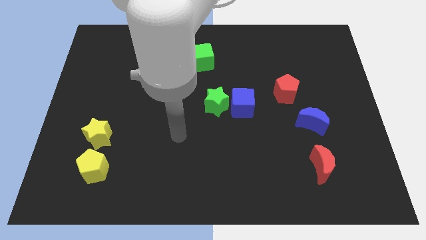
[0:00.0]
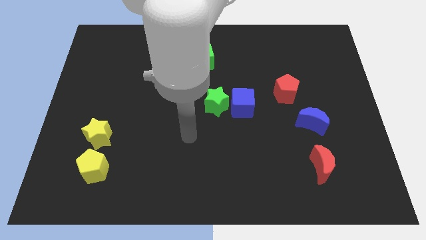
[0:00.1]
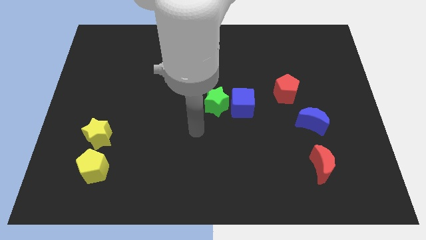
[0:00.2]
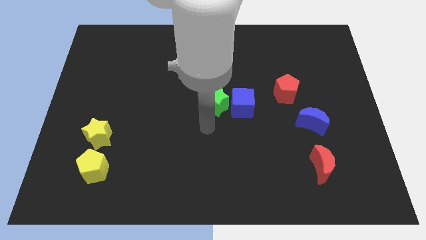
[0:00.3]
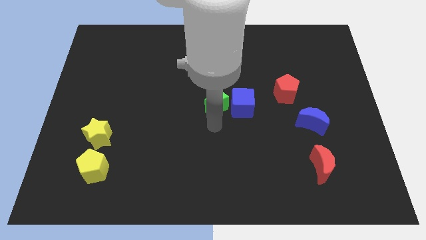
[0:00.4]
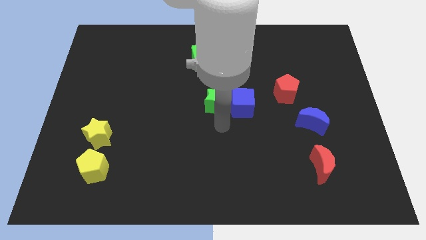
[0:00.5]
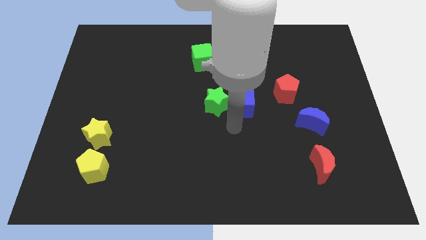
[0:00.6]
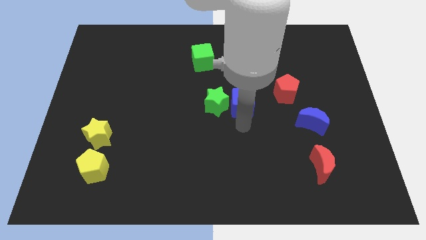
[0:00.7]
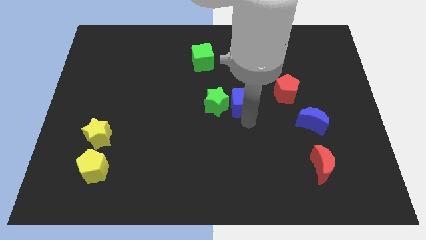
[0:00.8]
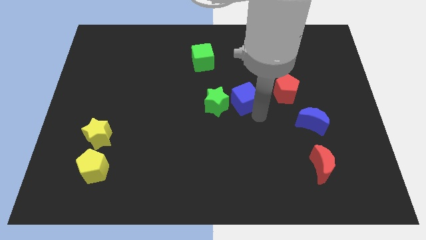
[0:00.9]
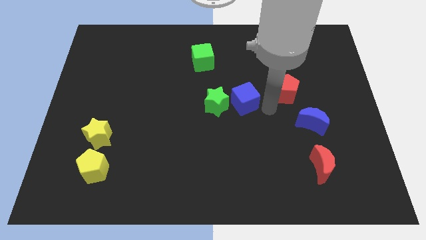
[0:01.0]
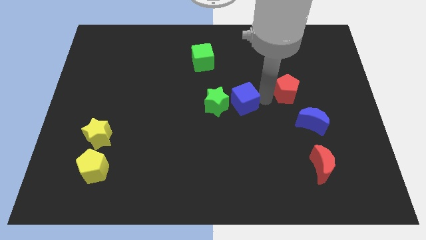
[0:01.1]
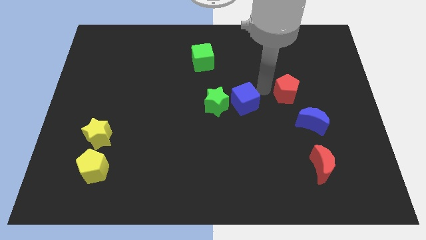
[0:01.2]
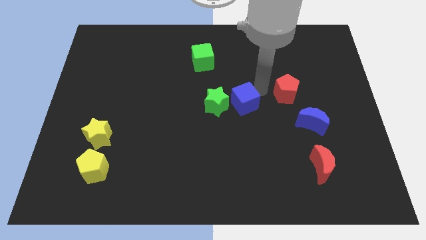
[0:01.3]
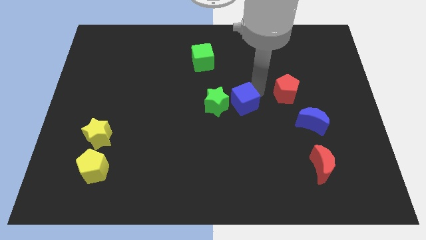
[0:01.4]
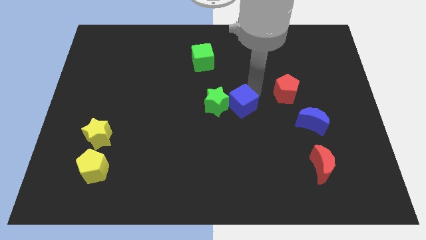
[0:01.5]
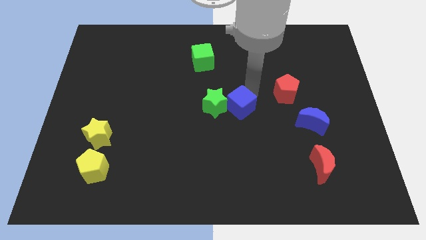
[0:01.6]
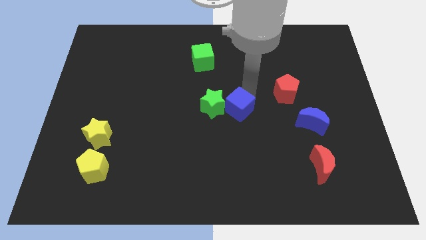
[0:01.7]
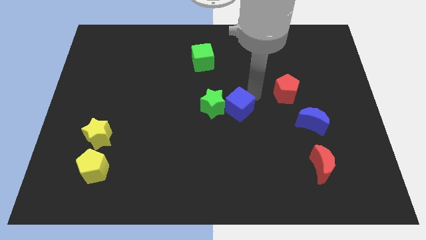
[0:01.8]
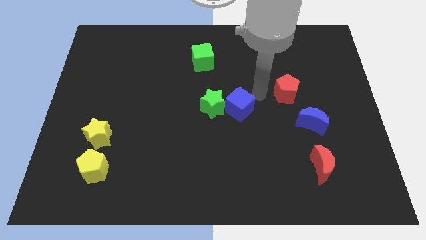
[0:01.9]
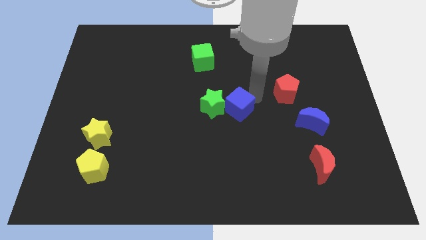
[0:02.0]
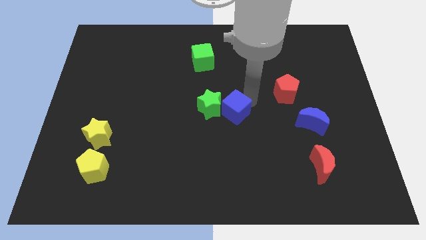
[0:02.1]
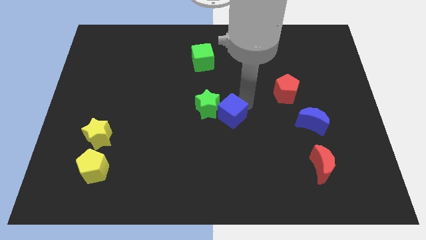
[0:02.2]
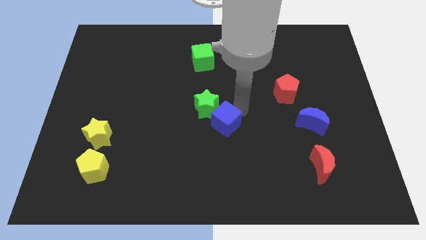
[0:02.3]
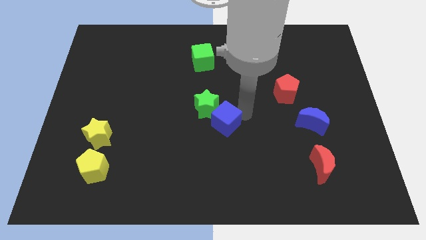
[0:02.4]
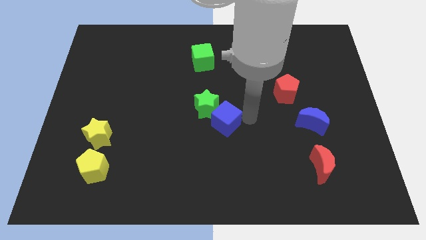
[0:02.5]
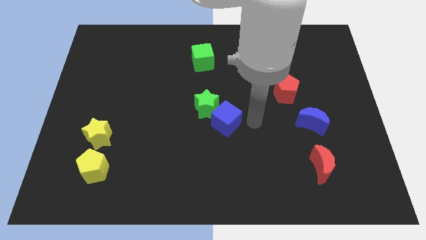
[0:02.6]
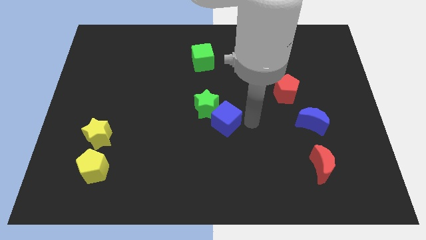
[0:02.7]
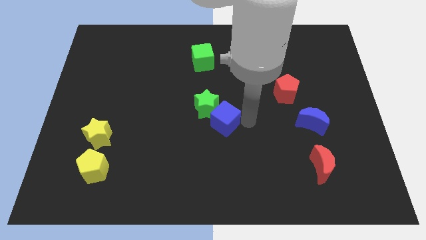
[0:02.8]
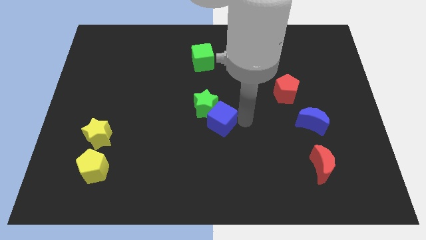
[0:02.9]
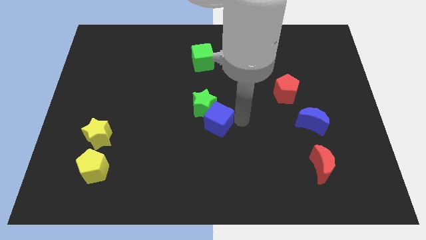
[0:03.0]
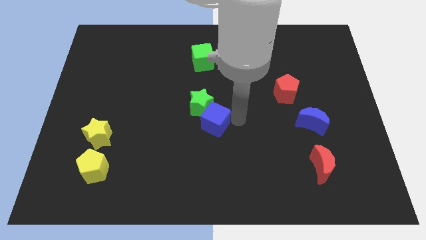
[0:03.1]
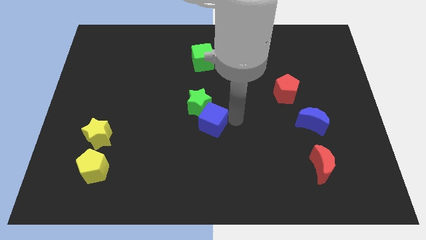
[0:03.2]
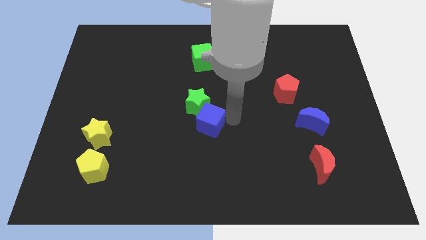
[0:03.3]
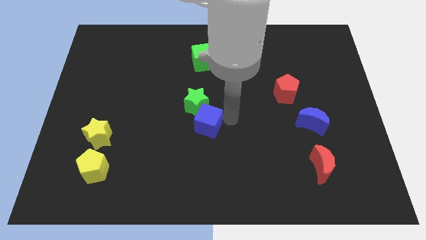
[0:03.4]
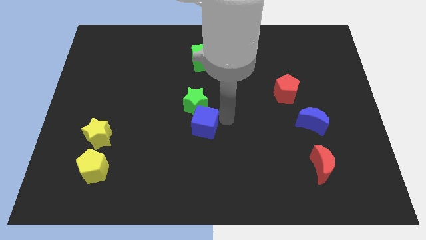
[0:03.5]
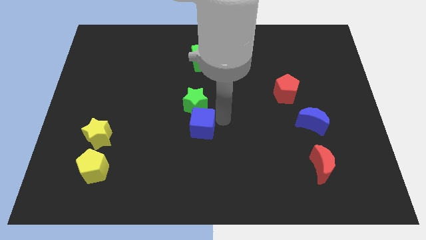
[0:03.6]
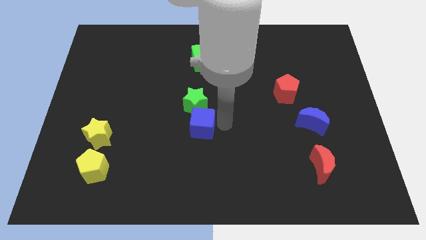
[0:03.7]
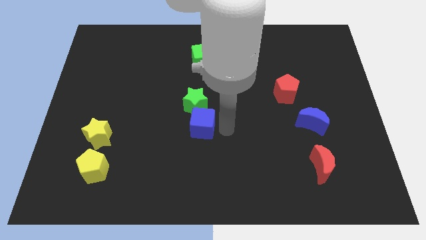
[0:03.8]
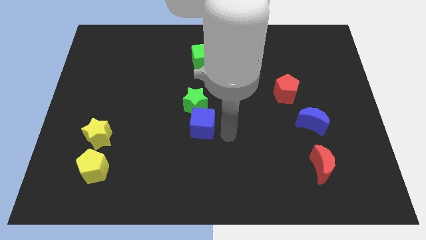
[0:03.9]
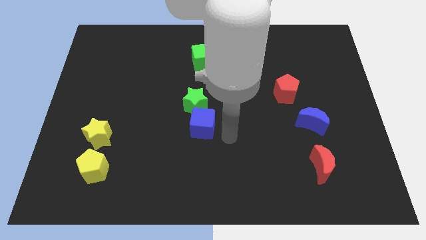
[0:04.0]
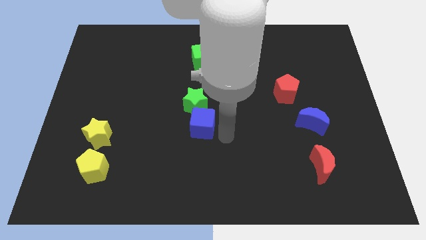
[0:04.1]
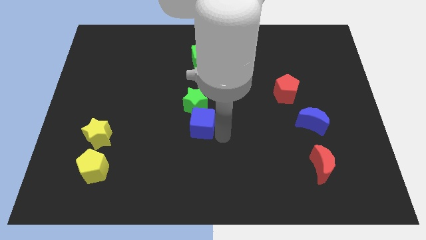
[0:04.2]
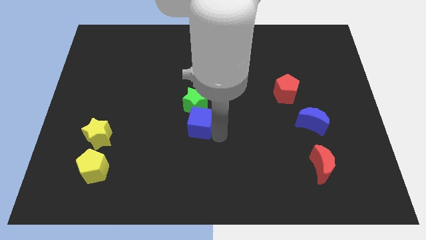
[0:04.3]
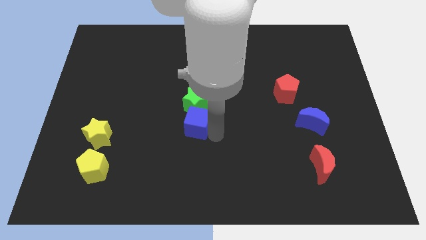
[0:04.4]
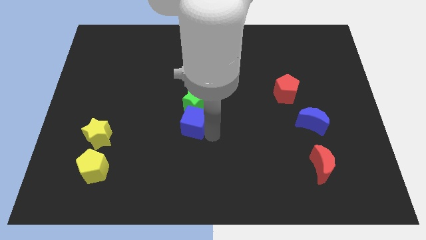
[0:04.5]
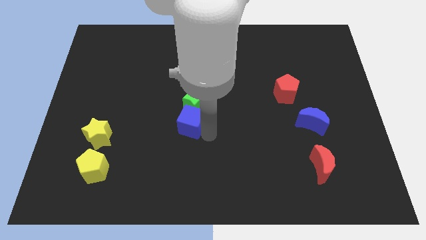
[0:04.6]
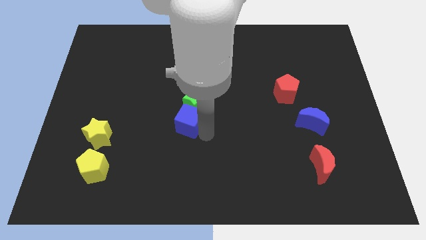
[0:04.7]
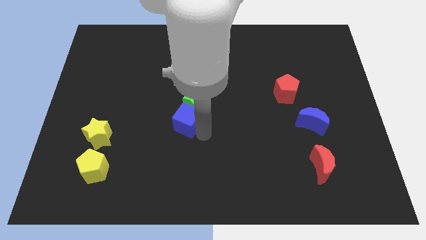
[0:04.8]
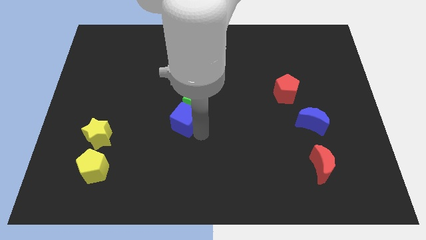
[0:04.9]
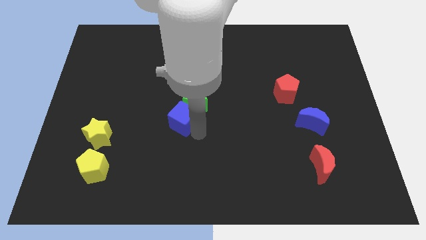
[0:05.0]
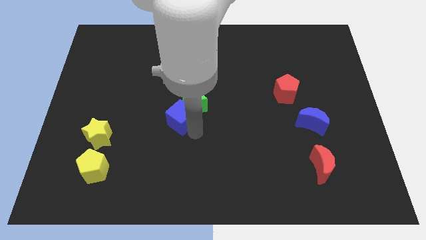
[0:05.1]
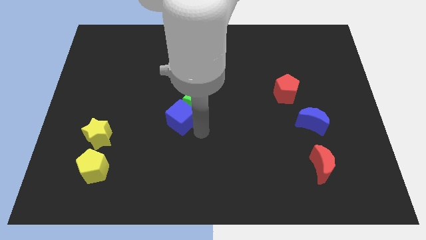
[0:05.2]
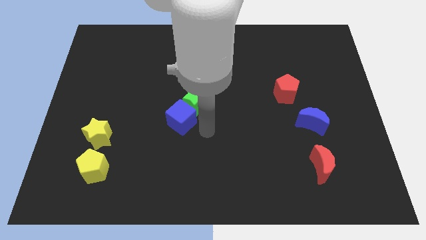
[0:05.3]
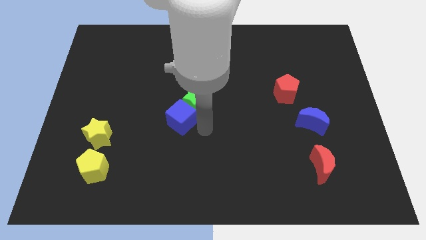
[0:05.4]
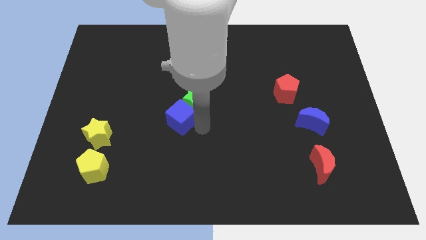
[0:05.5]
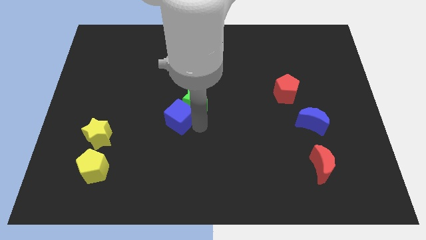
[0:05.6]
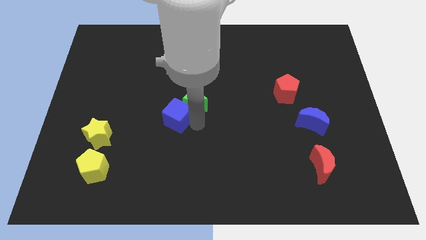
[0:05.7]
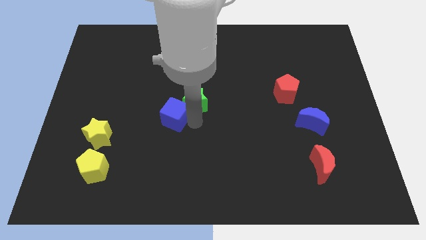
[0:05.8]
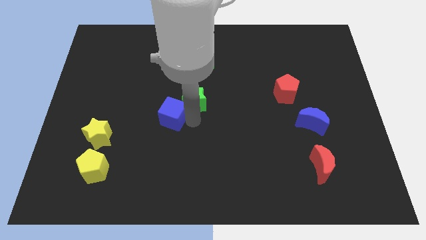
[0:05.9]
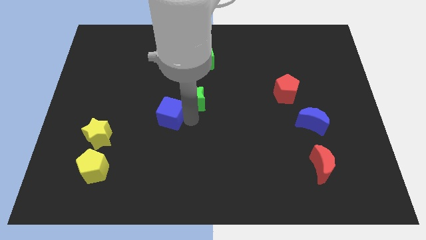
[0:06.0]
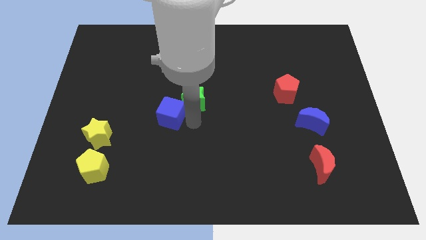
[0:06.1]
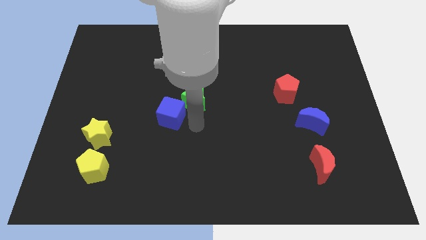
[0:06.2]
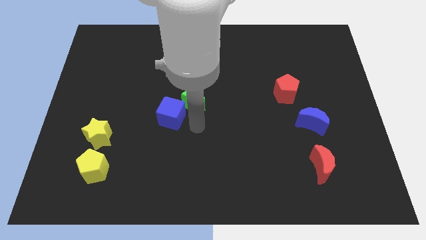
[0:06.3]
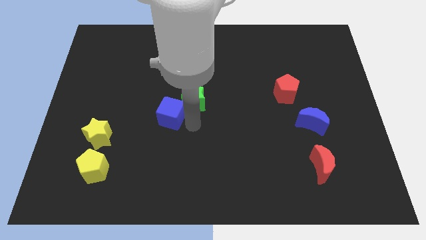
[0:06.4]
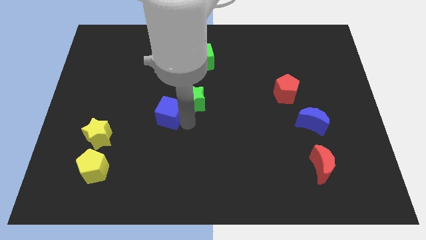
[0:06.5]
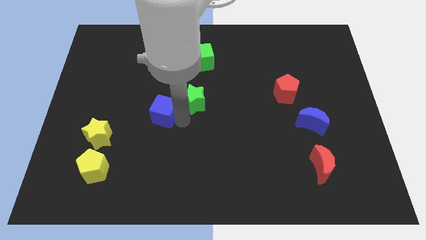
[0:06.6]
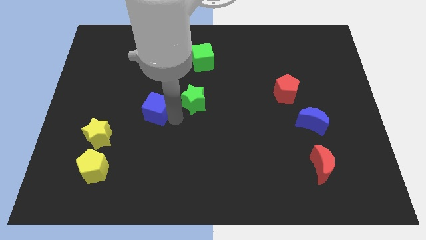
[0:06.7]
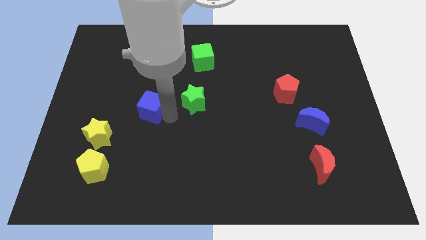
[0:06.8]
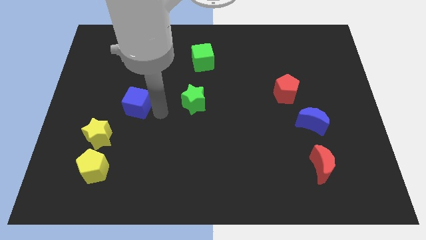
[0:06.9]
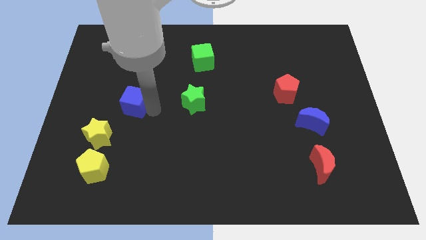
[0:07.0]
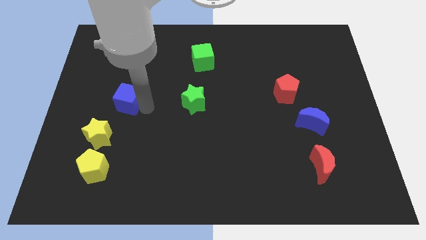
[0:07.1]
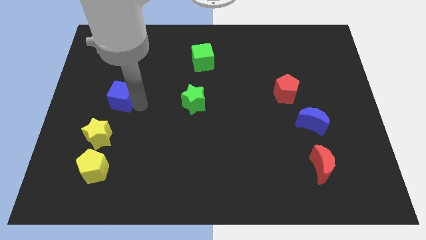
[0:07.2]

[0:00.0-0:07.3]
push the blue cube to the top of the yellow star
